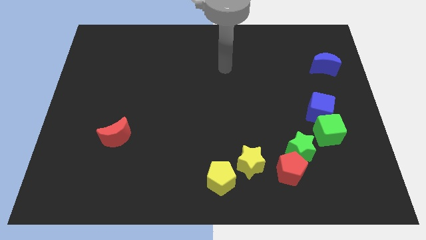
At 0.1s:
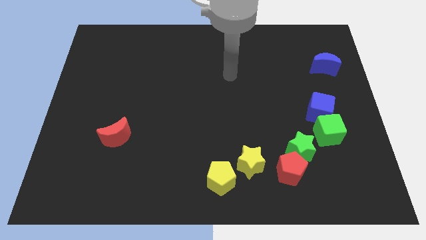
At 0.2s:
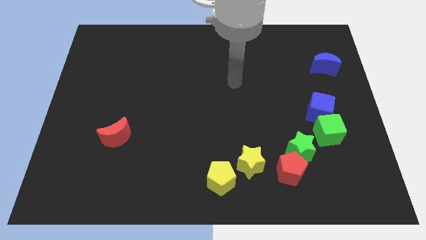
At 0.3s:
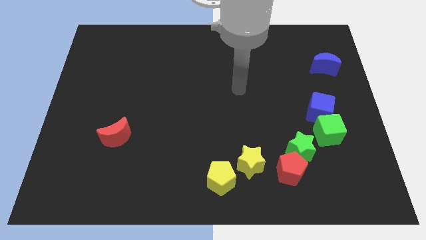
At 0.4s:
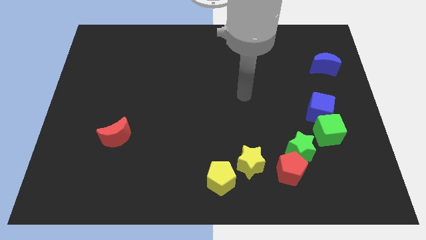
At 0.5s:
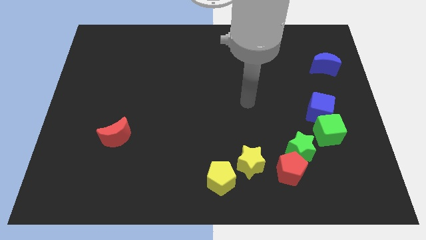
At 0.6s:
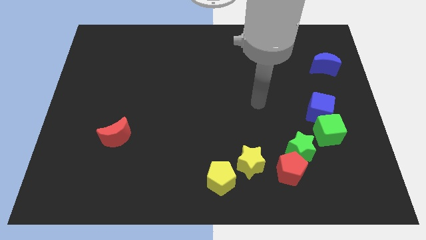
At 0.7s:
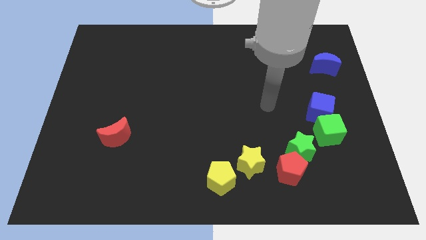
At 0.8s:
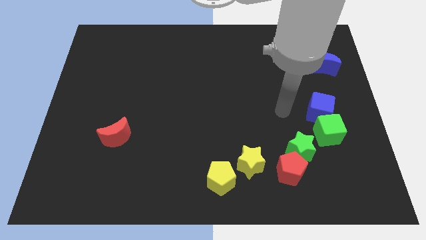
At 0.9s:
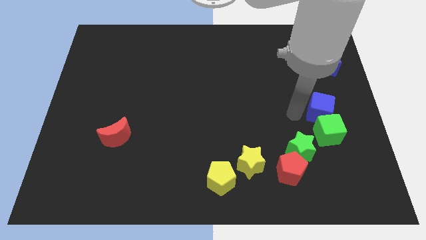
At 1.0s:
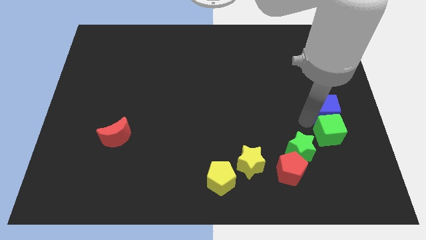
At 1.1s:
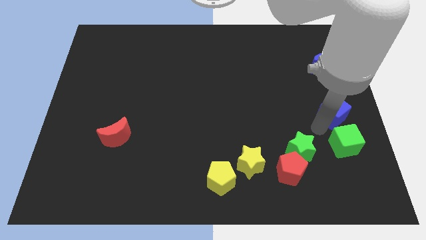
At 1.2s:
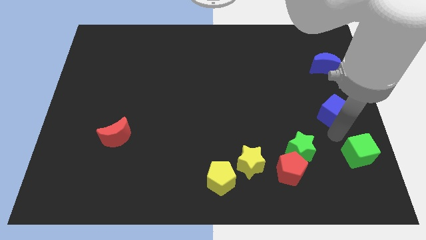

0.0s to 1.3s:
move the blue cube away from the green cube

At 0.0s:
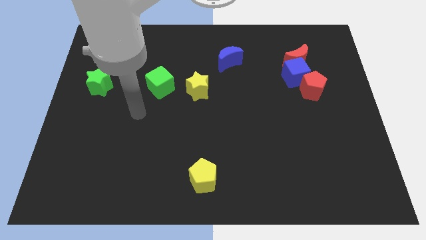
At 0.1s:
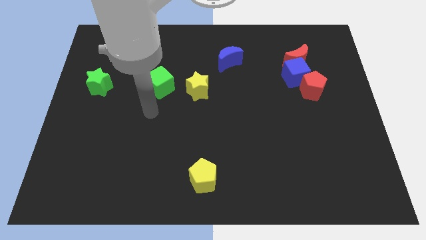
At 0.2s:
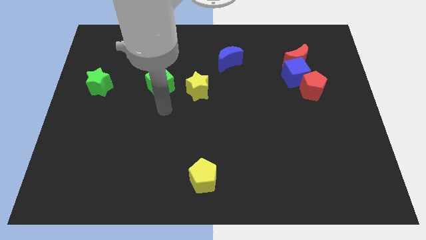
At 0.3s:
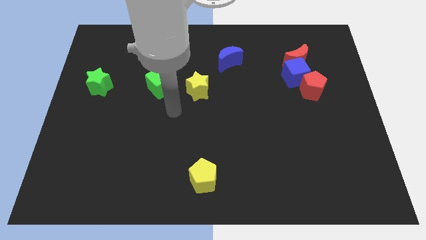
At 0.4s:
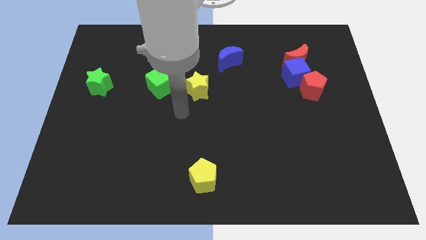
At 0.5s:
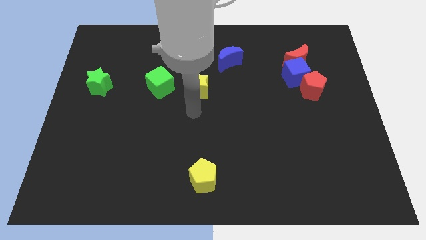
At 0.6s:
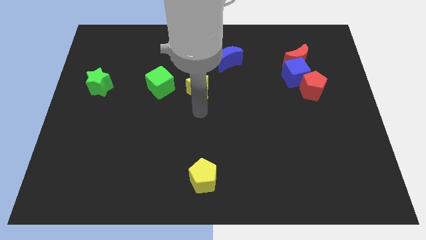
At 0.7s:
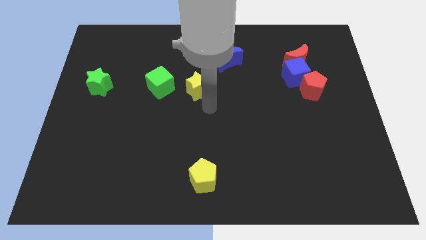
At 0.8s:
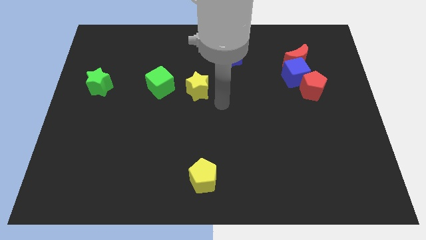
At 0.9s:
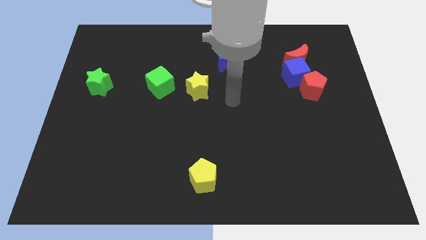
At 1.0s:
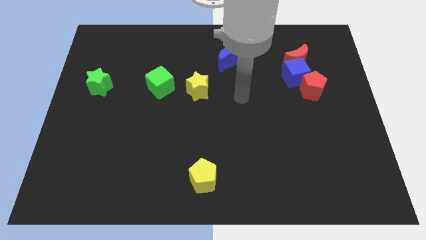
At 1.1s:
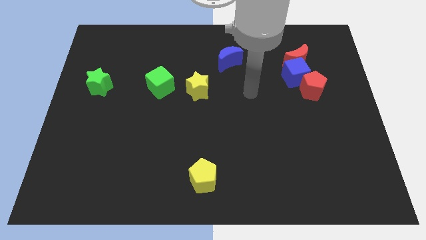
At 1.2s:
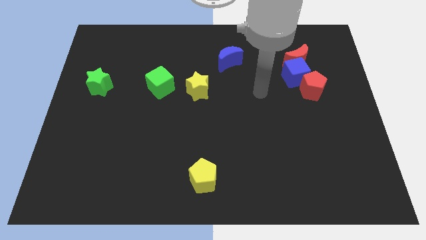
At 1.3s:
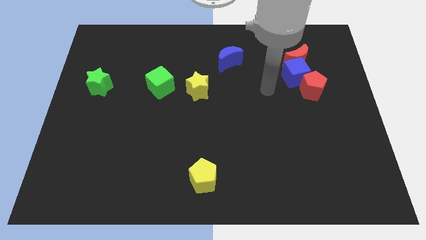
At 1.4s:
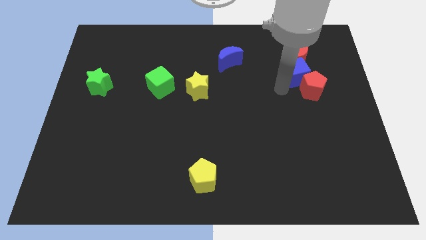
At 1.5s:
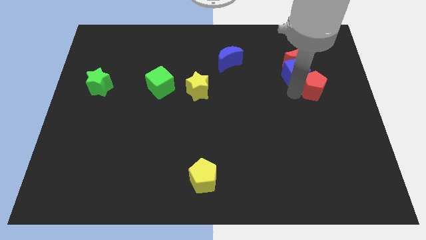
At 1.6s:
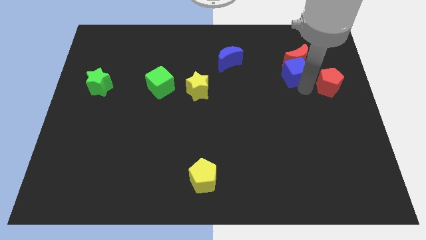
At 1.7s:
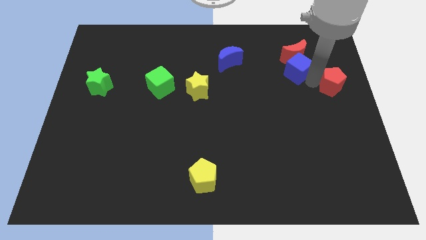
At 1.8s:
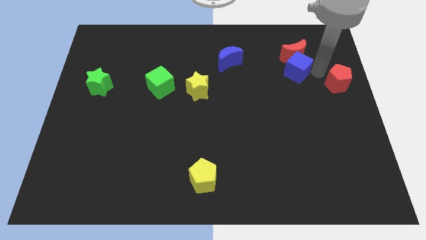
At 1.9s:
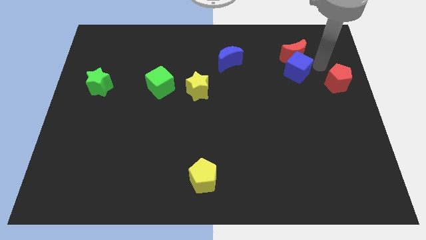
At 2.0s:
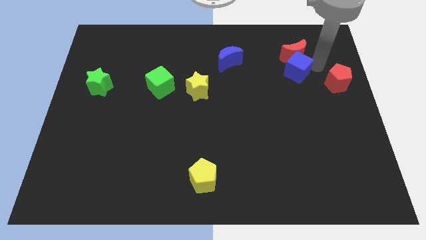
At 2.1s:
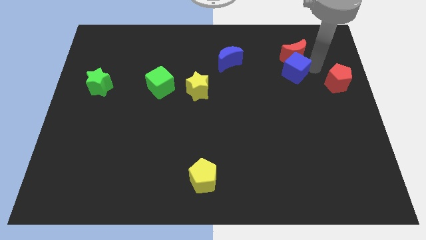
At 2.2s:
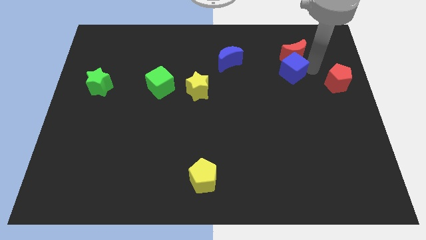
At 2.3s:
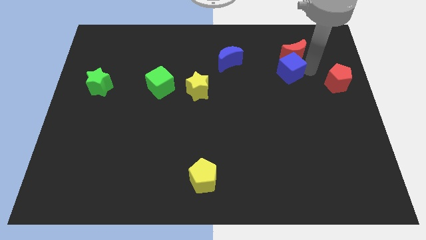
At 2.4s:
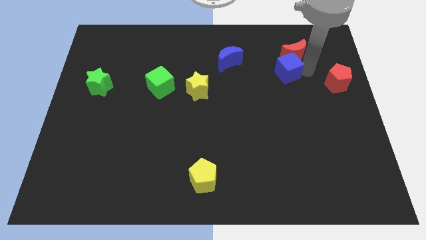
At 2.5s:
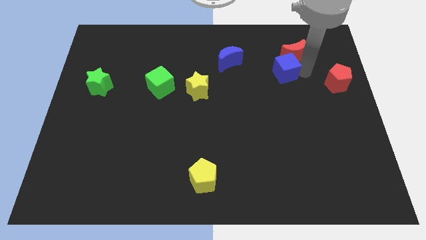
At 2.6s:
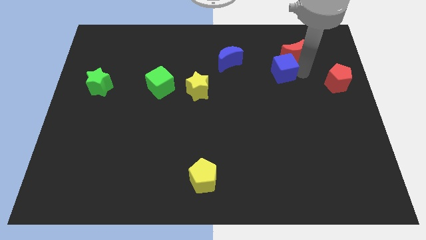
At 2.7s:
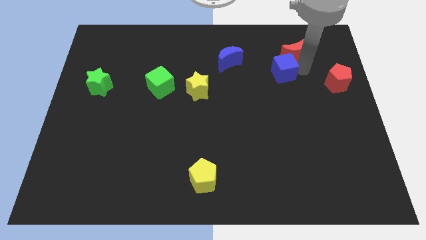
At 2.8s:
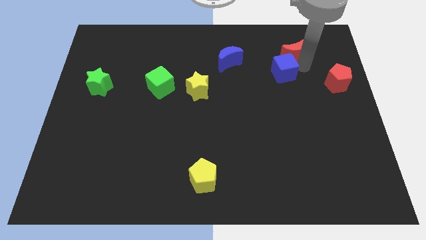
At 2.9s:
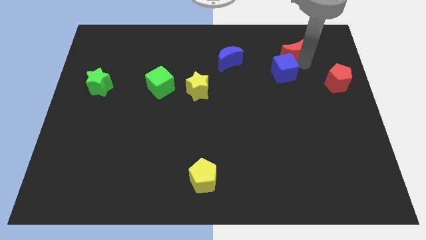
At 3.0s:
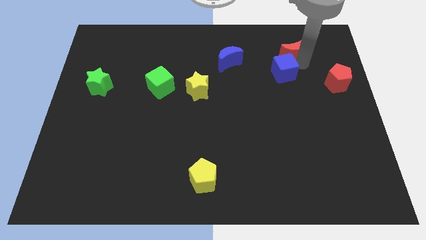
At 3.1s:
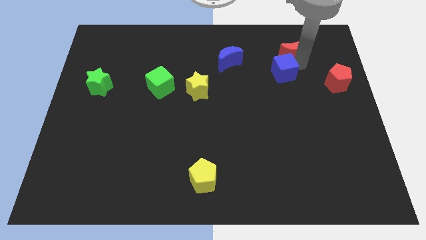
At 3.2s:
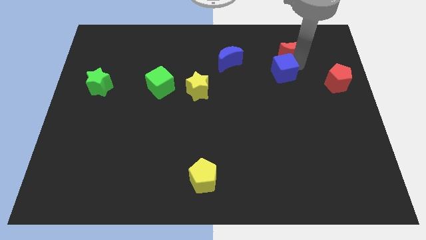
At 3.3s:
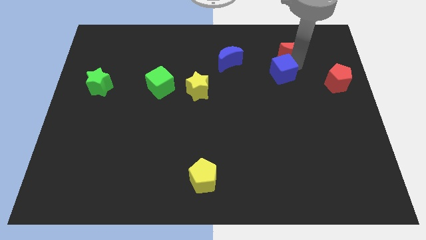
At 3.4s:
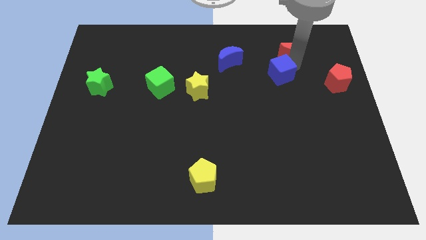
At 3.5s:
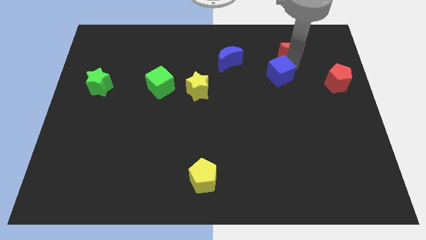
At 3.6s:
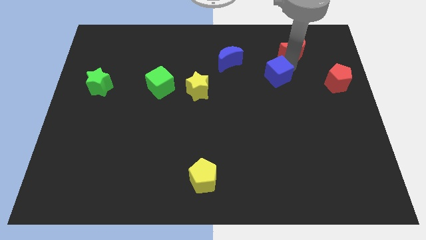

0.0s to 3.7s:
pull the blue cube apart from the red moon and red pentagon

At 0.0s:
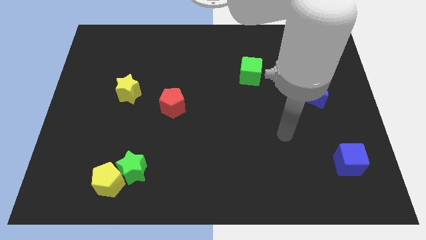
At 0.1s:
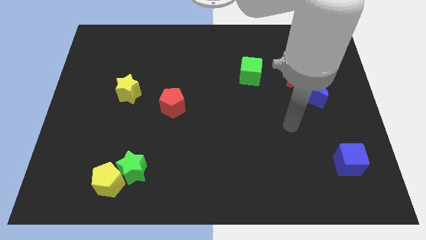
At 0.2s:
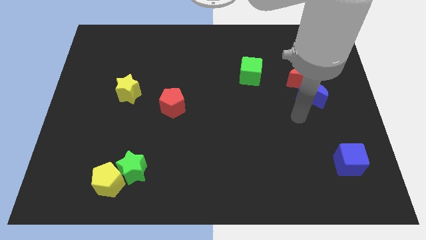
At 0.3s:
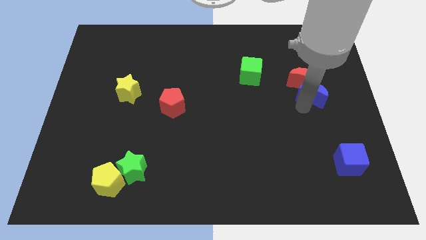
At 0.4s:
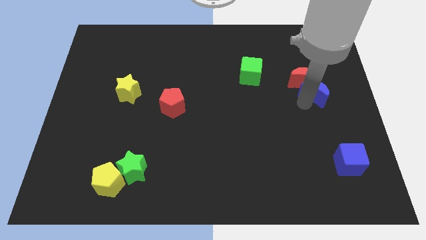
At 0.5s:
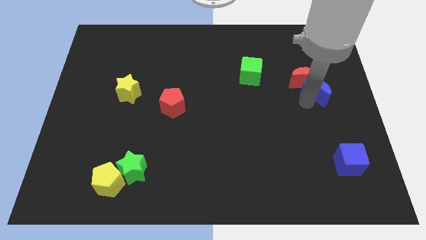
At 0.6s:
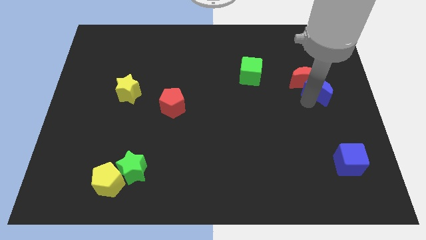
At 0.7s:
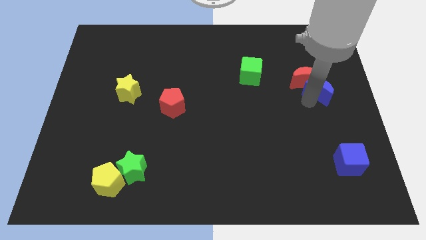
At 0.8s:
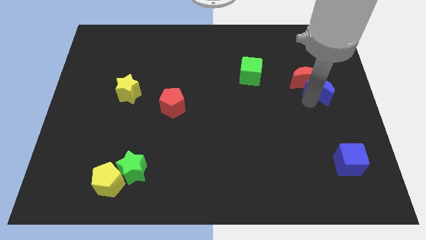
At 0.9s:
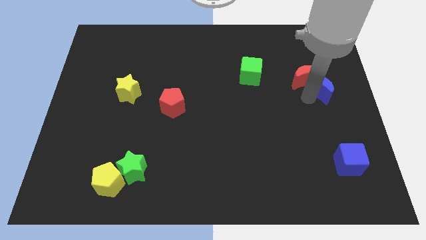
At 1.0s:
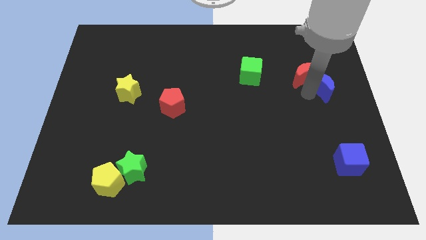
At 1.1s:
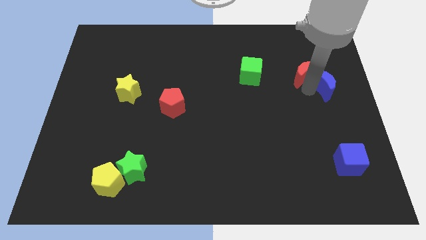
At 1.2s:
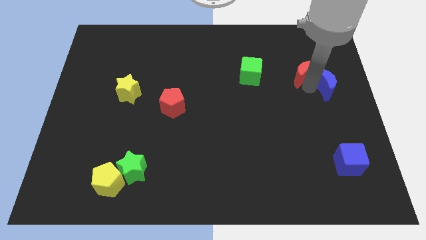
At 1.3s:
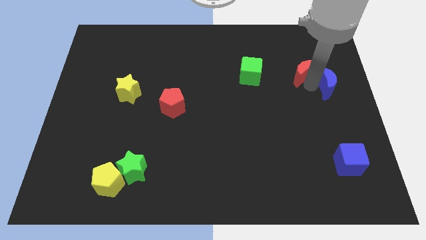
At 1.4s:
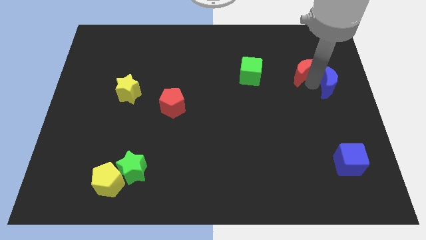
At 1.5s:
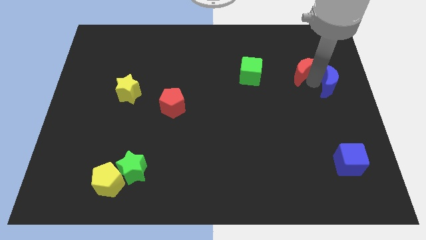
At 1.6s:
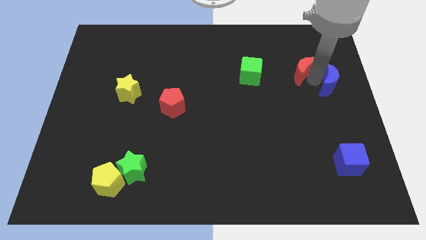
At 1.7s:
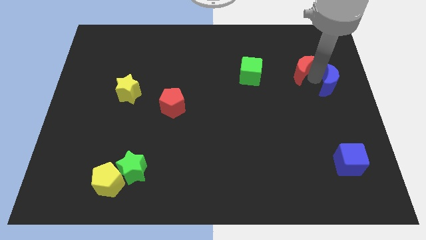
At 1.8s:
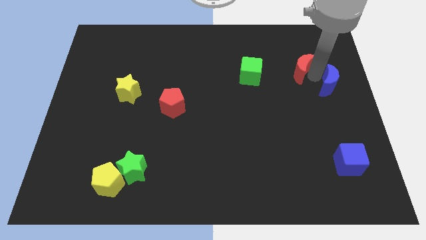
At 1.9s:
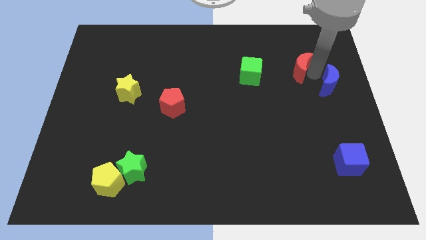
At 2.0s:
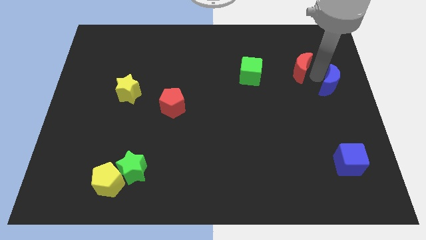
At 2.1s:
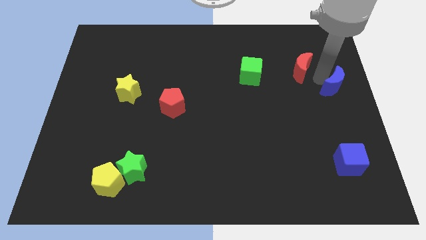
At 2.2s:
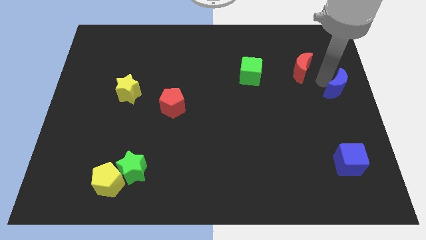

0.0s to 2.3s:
move the red moon away from the blue moon

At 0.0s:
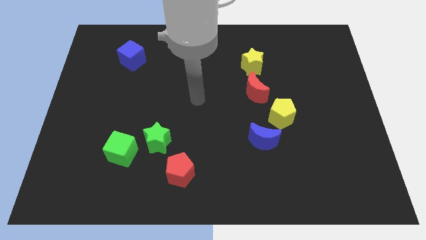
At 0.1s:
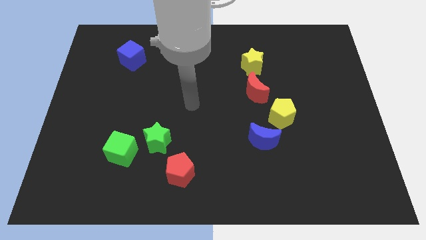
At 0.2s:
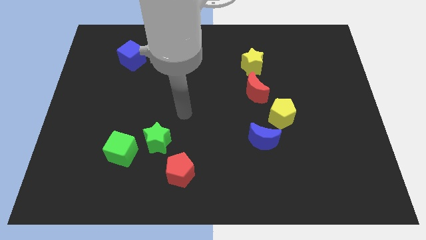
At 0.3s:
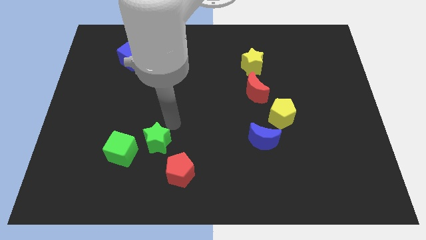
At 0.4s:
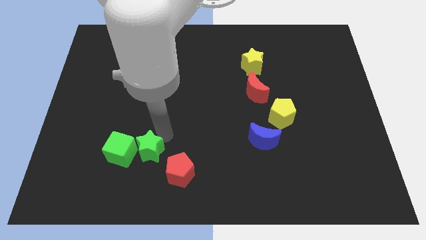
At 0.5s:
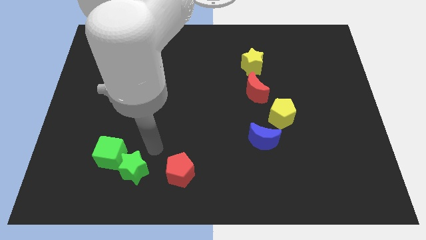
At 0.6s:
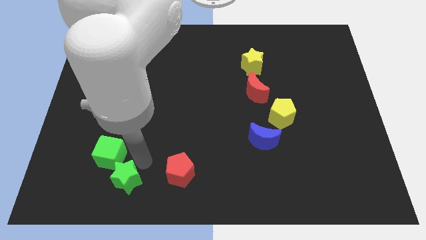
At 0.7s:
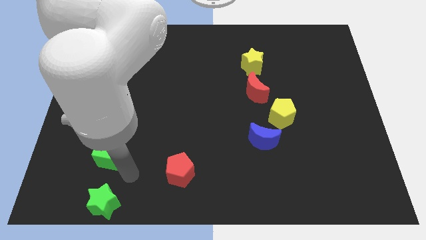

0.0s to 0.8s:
move the green cube away from the green star

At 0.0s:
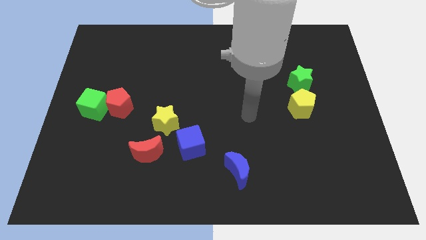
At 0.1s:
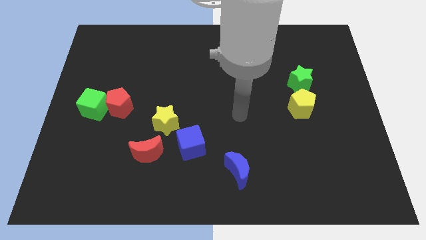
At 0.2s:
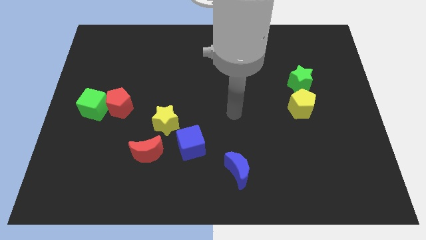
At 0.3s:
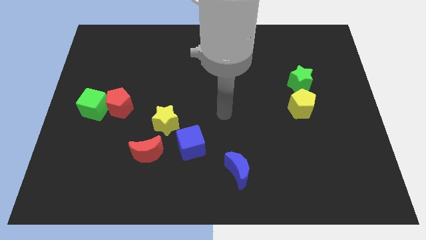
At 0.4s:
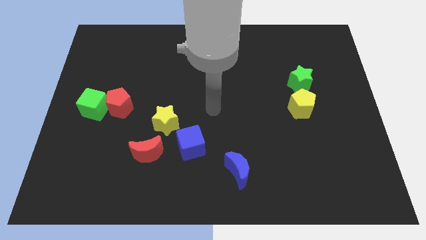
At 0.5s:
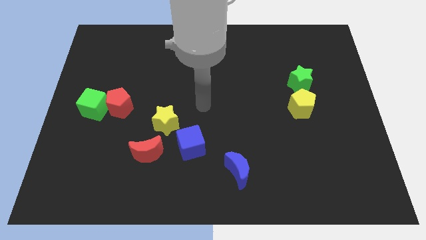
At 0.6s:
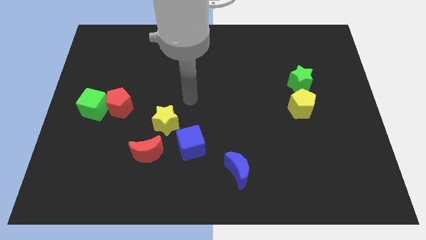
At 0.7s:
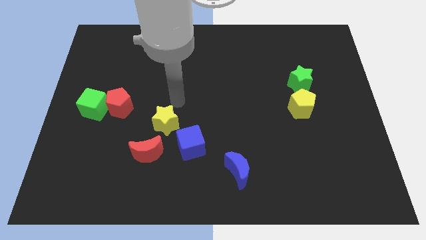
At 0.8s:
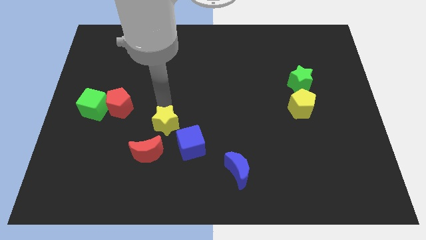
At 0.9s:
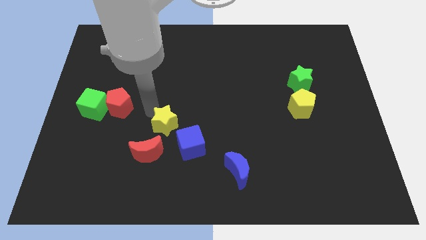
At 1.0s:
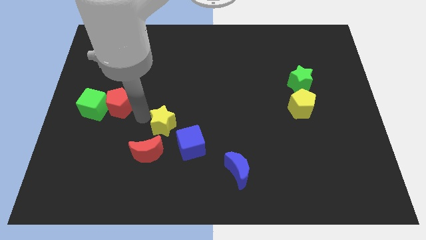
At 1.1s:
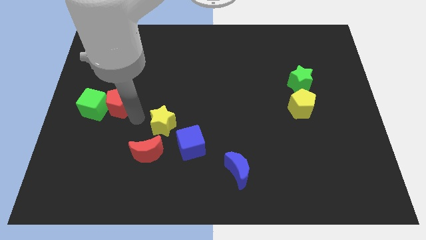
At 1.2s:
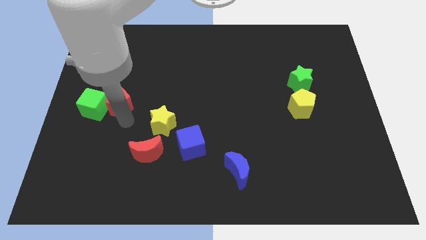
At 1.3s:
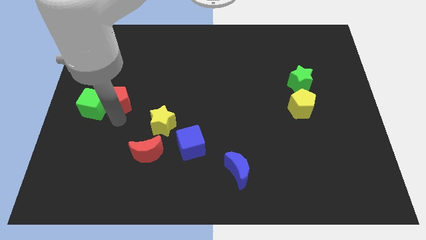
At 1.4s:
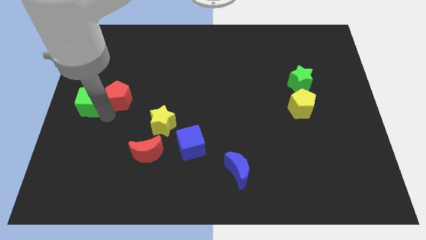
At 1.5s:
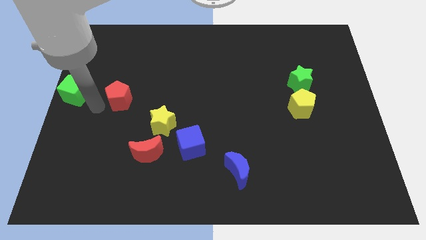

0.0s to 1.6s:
pull the red pentagon apart from the green cube
